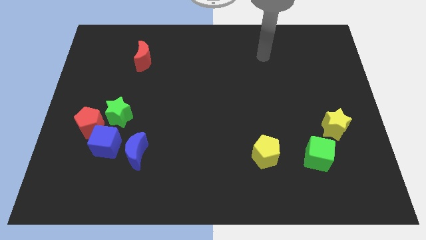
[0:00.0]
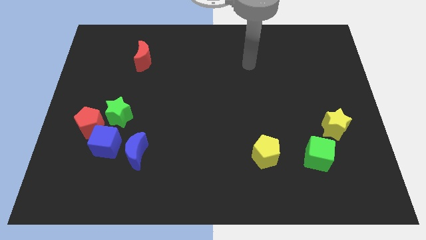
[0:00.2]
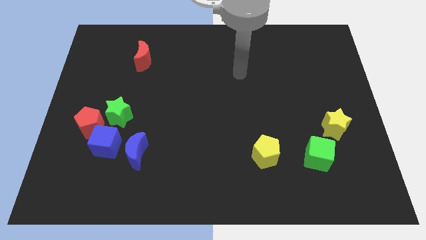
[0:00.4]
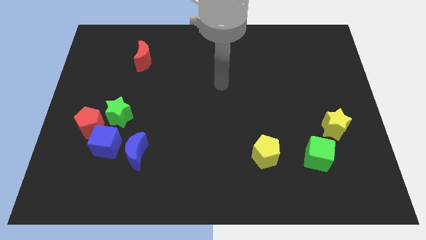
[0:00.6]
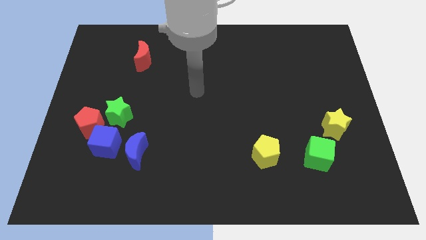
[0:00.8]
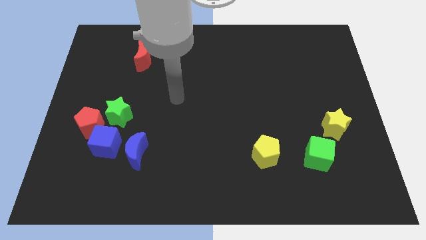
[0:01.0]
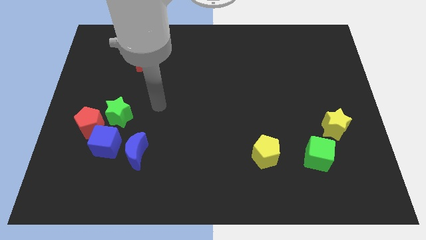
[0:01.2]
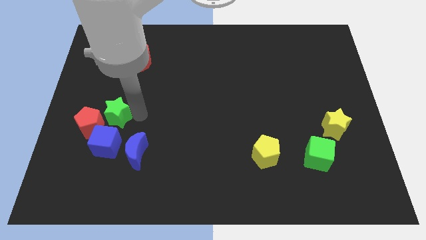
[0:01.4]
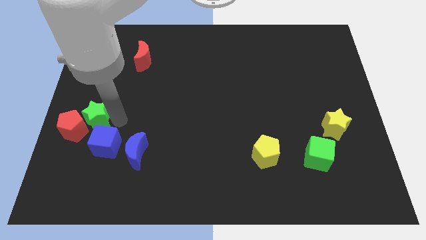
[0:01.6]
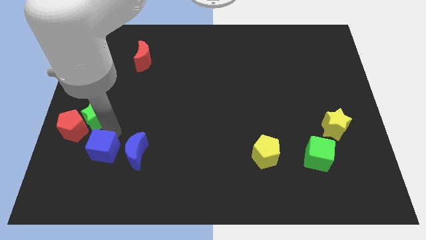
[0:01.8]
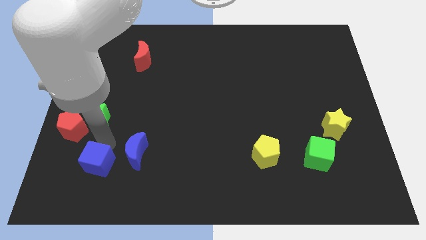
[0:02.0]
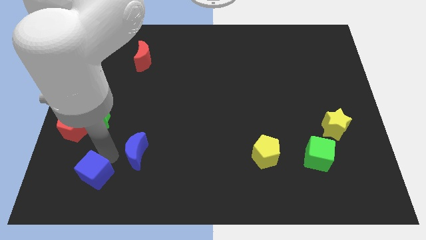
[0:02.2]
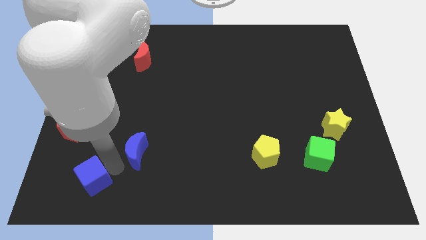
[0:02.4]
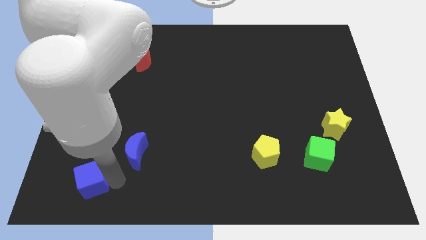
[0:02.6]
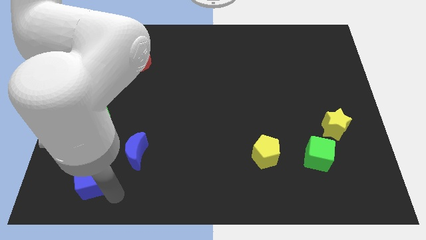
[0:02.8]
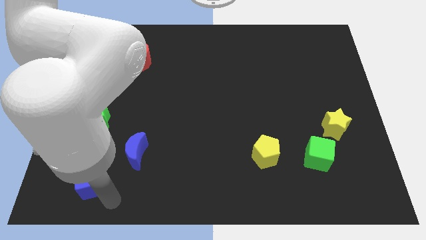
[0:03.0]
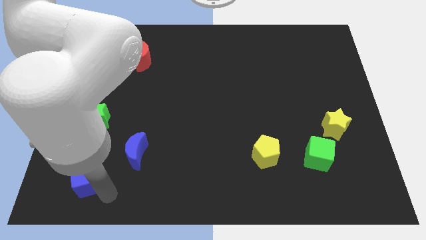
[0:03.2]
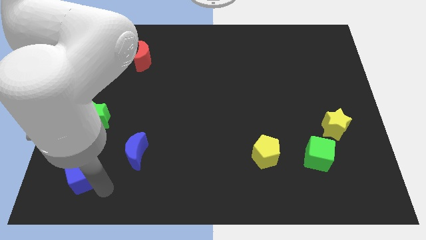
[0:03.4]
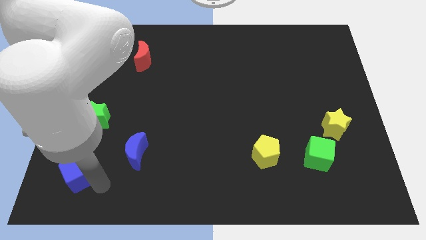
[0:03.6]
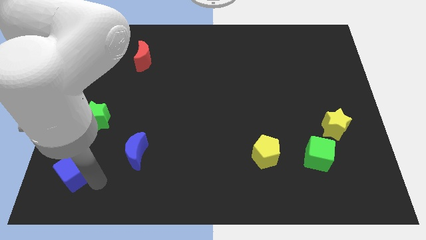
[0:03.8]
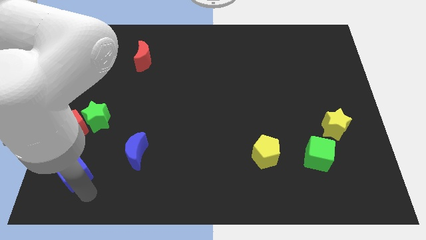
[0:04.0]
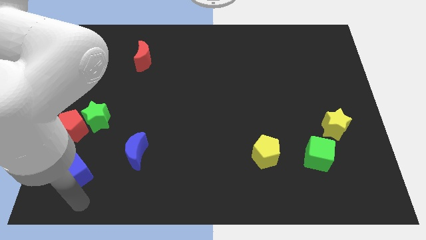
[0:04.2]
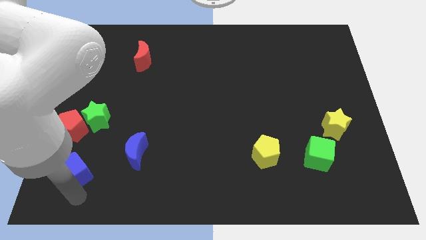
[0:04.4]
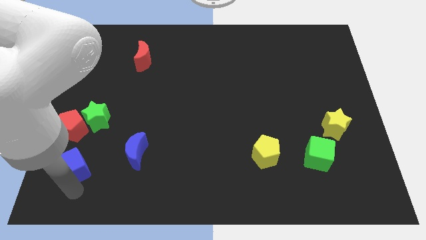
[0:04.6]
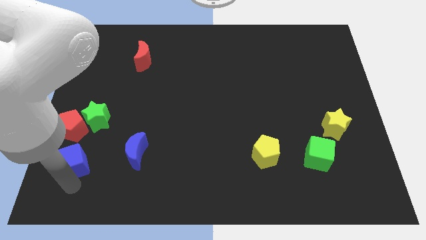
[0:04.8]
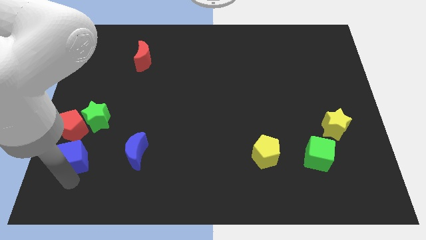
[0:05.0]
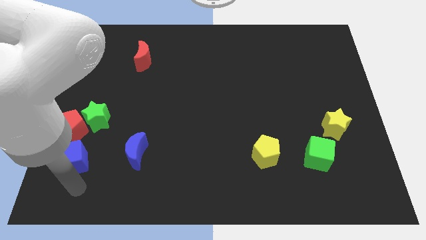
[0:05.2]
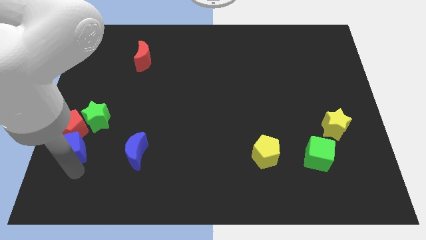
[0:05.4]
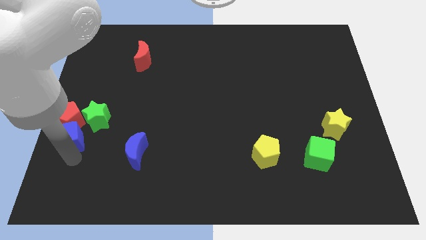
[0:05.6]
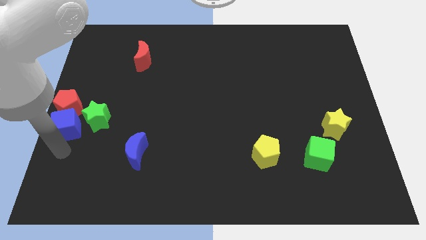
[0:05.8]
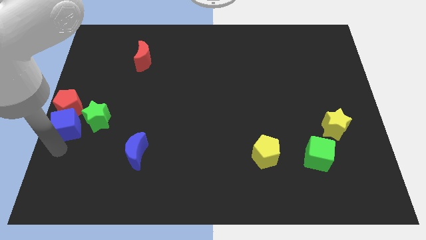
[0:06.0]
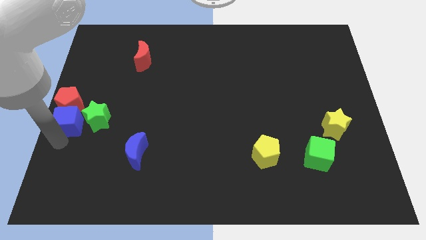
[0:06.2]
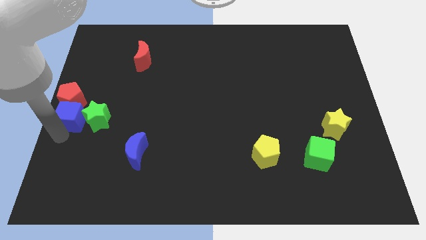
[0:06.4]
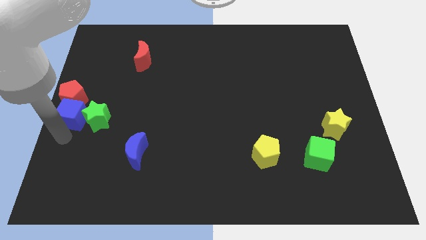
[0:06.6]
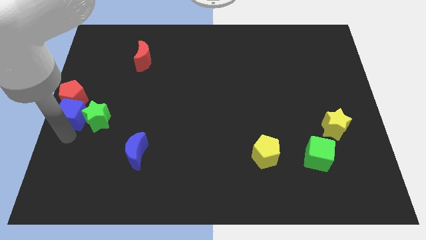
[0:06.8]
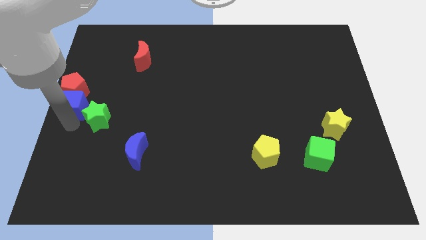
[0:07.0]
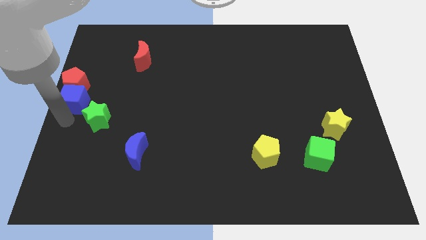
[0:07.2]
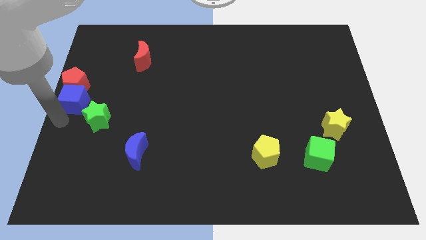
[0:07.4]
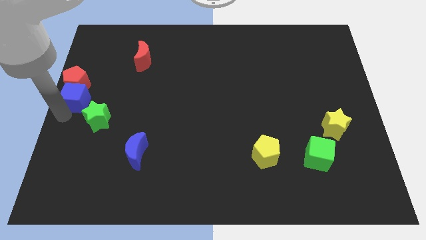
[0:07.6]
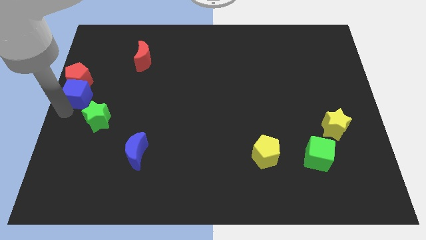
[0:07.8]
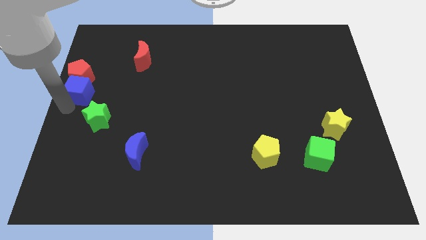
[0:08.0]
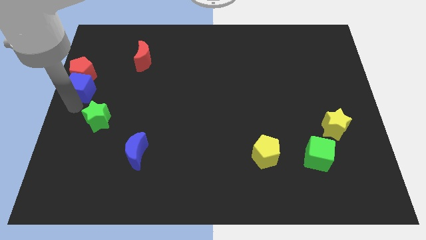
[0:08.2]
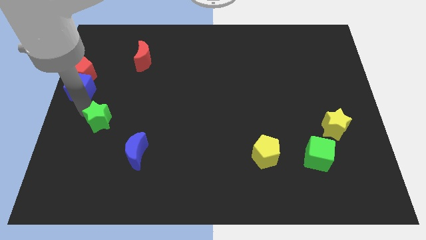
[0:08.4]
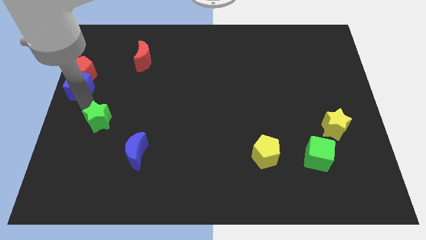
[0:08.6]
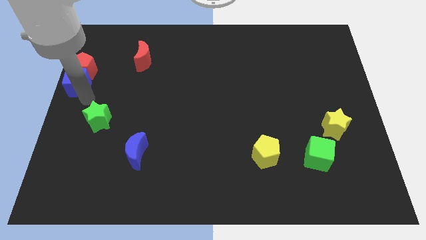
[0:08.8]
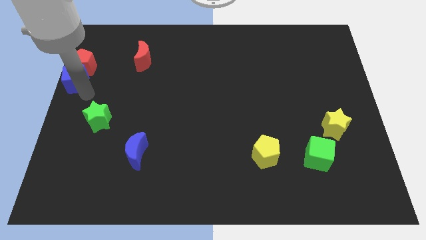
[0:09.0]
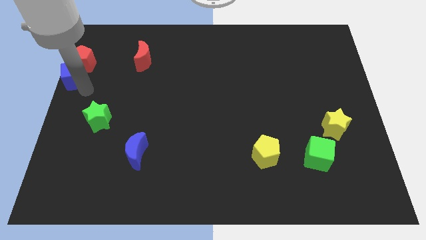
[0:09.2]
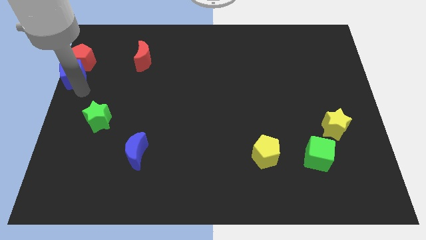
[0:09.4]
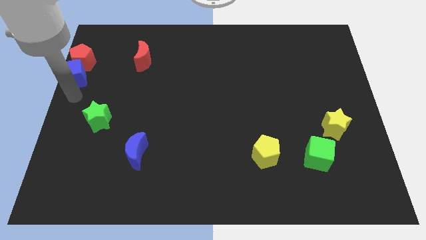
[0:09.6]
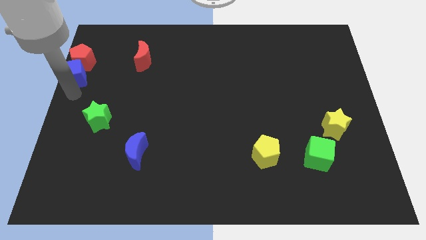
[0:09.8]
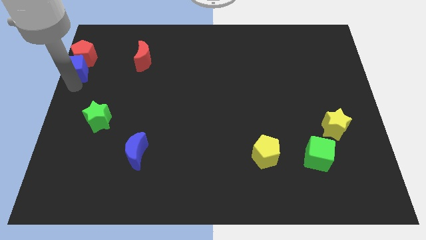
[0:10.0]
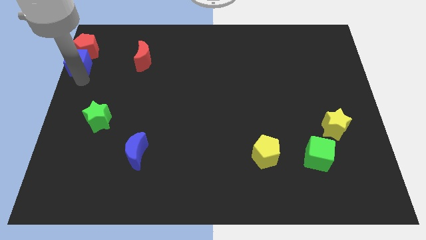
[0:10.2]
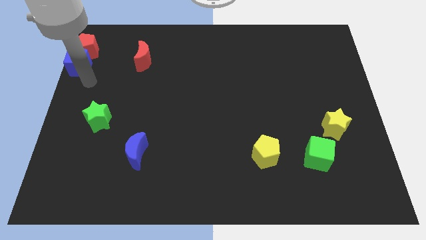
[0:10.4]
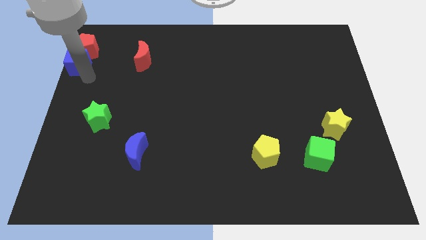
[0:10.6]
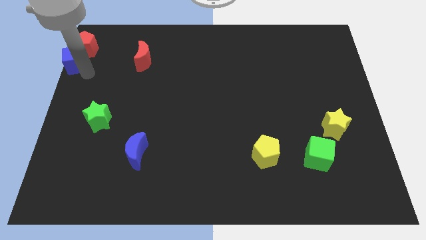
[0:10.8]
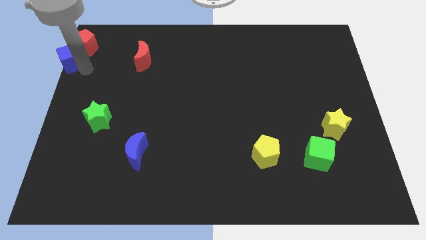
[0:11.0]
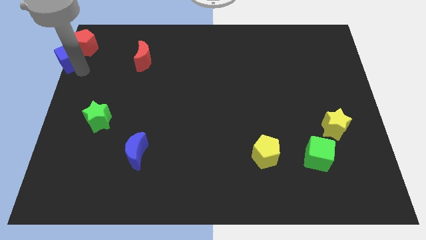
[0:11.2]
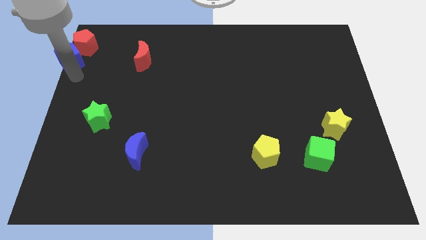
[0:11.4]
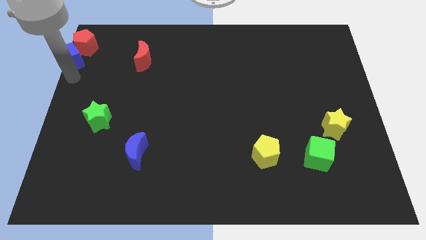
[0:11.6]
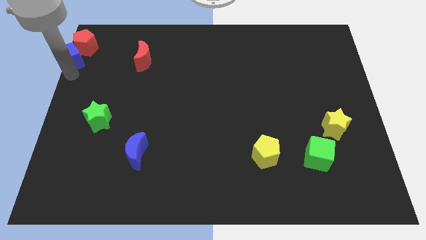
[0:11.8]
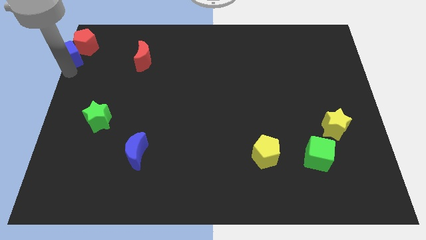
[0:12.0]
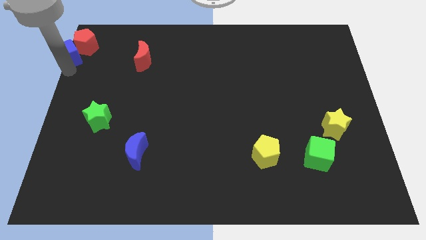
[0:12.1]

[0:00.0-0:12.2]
put the blue cube to the top left corner

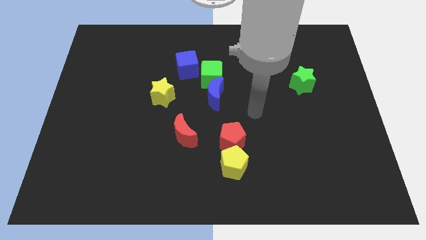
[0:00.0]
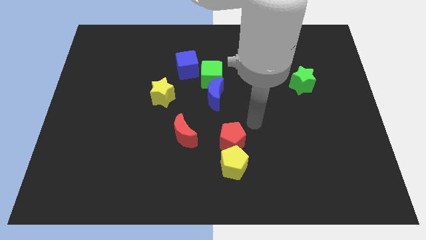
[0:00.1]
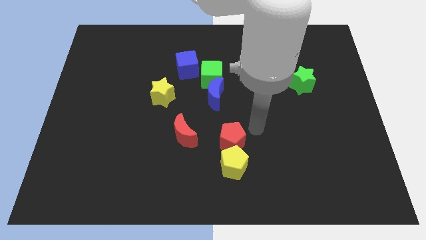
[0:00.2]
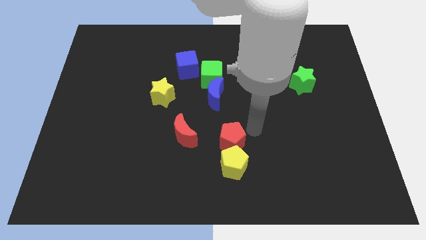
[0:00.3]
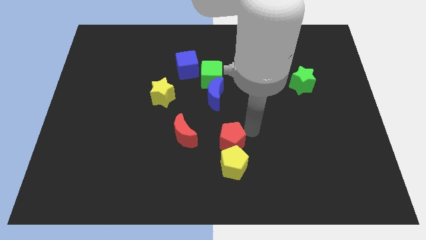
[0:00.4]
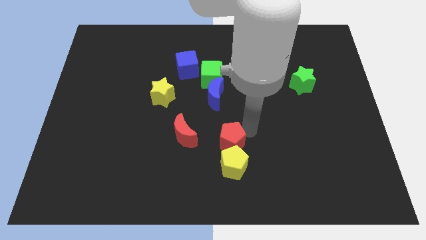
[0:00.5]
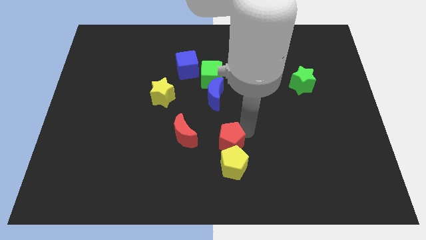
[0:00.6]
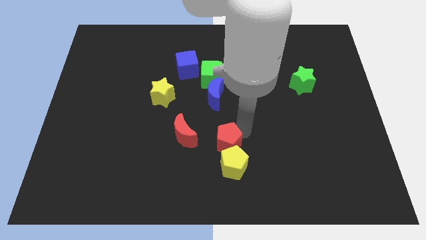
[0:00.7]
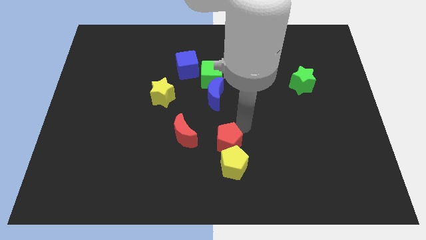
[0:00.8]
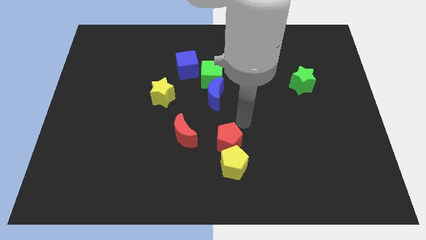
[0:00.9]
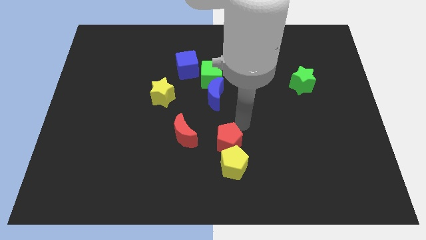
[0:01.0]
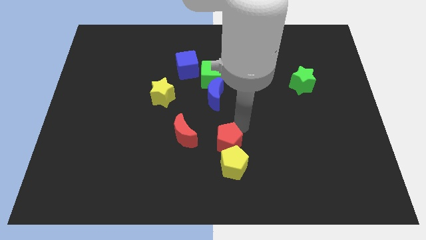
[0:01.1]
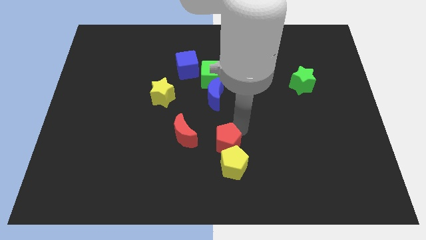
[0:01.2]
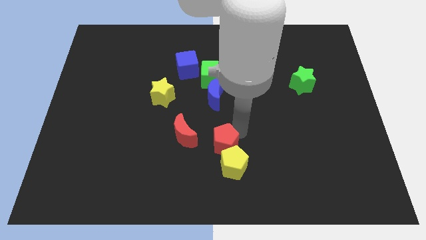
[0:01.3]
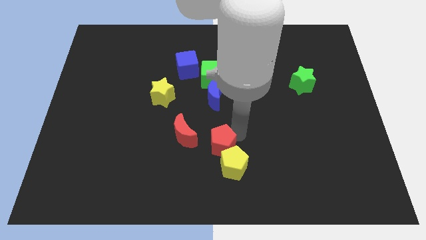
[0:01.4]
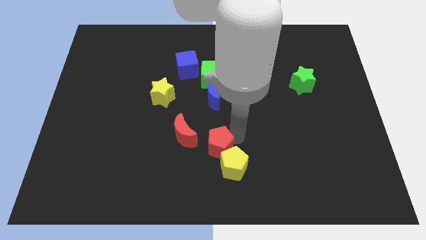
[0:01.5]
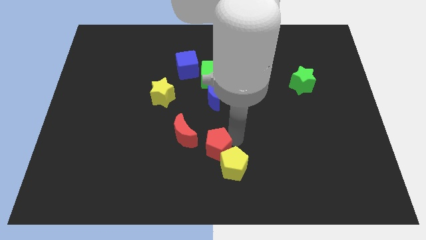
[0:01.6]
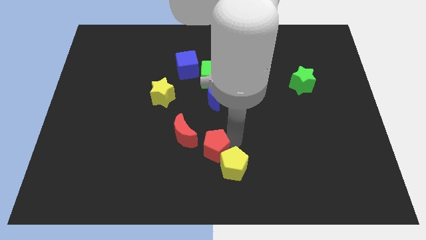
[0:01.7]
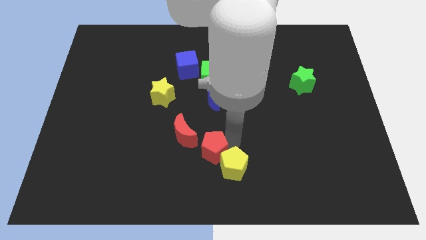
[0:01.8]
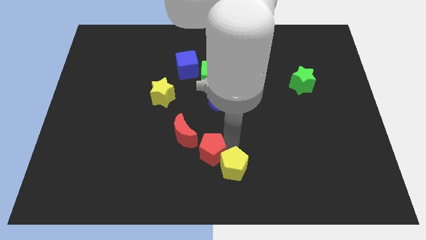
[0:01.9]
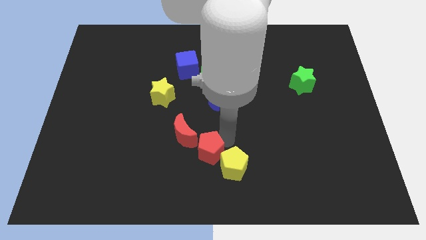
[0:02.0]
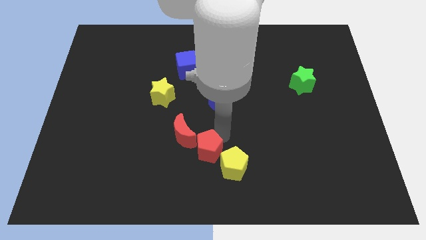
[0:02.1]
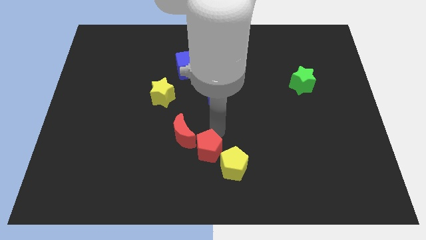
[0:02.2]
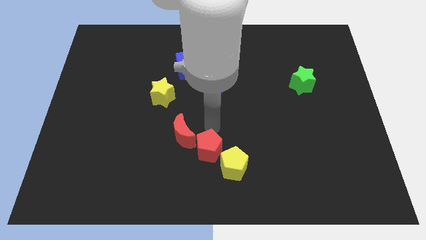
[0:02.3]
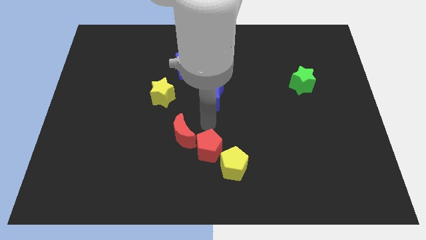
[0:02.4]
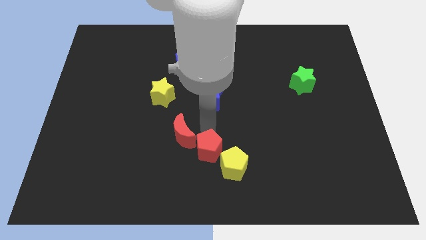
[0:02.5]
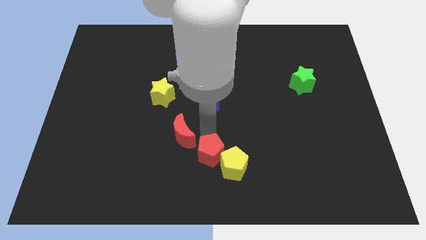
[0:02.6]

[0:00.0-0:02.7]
push the red pentagon to the bottom side

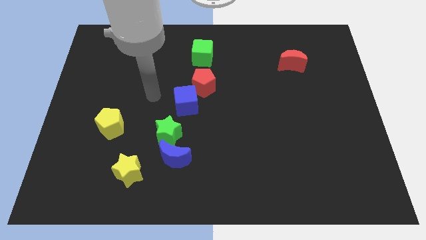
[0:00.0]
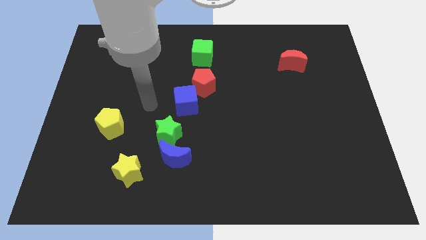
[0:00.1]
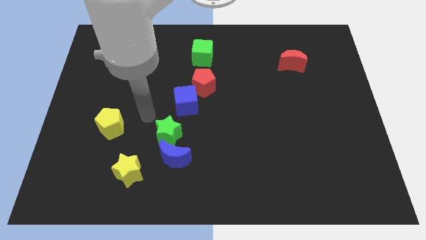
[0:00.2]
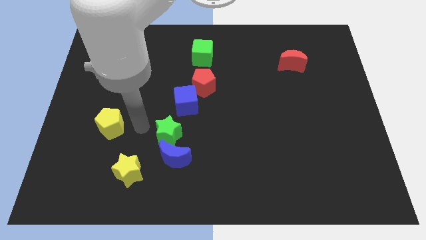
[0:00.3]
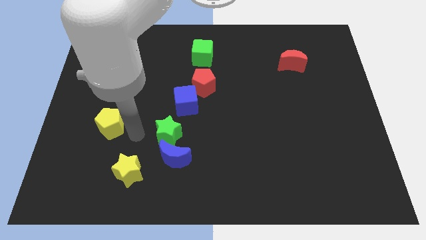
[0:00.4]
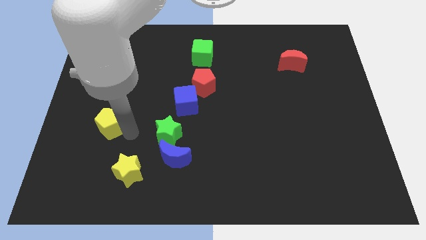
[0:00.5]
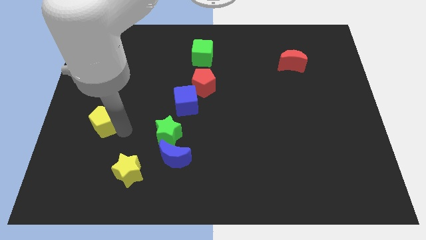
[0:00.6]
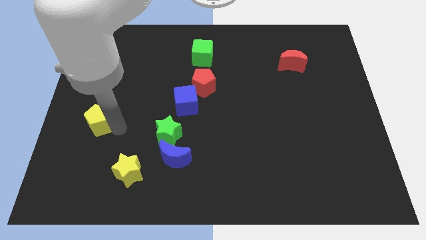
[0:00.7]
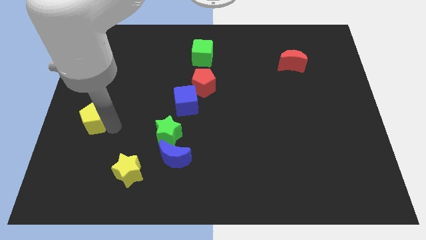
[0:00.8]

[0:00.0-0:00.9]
push the yellow pentagon to the center left
